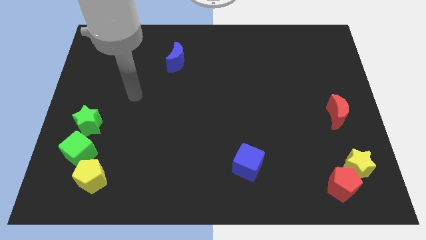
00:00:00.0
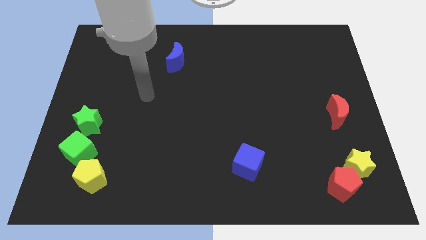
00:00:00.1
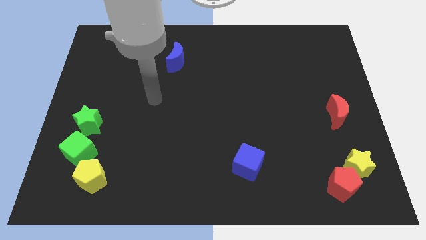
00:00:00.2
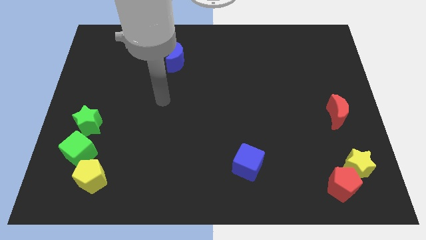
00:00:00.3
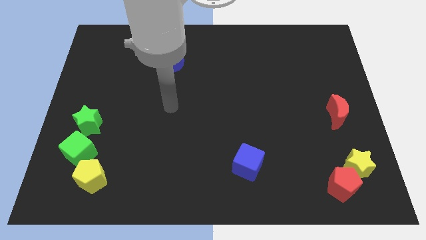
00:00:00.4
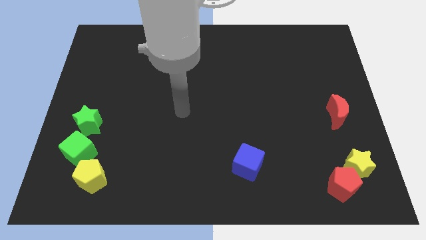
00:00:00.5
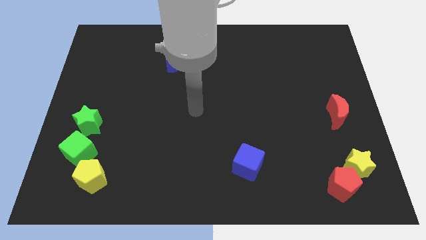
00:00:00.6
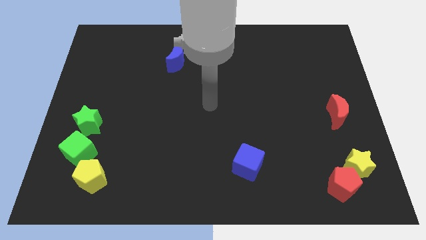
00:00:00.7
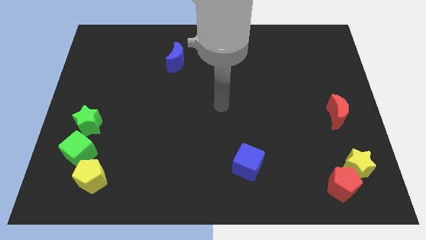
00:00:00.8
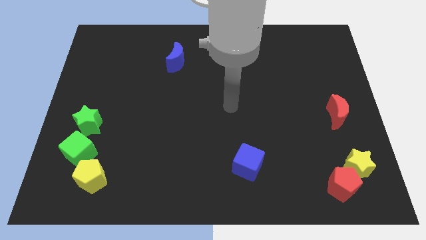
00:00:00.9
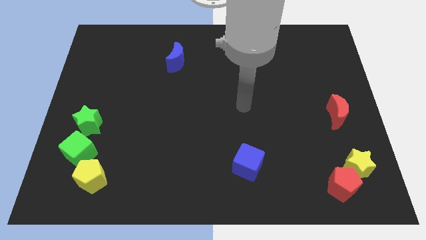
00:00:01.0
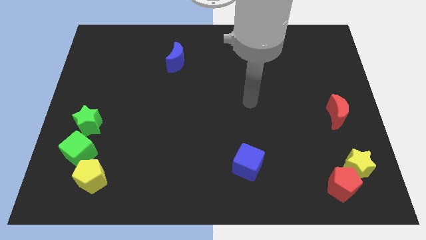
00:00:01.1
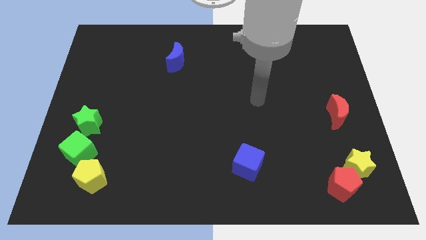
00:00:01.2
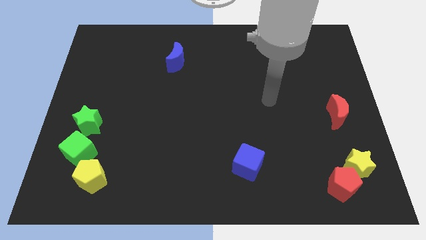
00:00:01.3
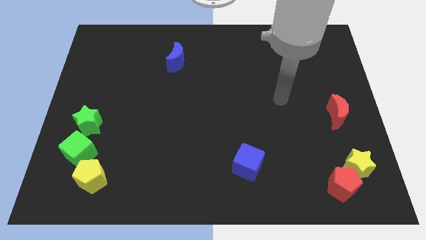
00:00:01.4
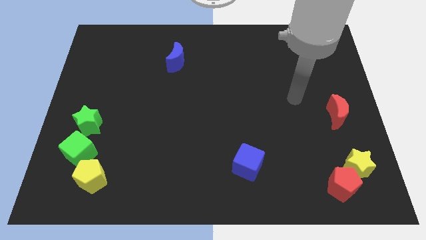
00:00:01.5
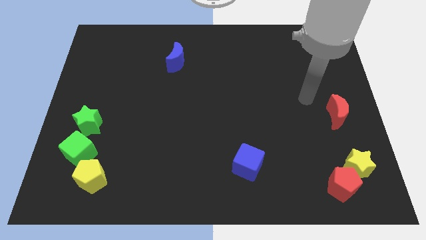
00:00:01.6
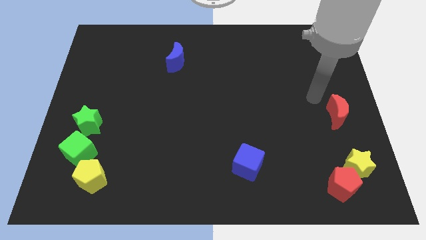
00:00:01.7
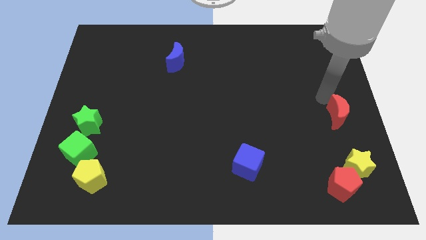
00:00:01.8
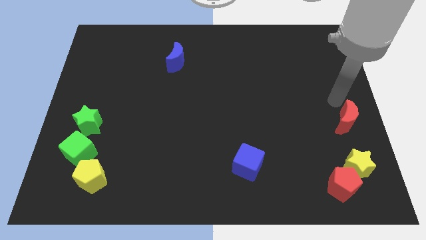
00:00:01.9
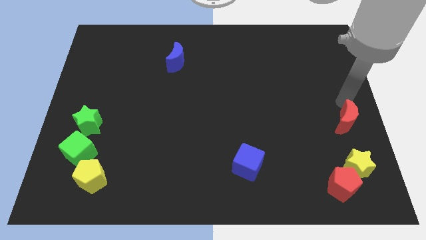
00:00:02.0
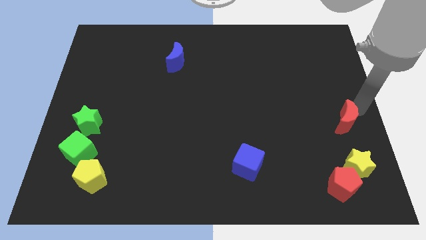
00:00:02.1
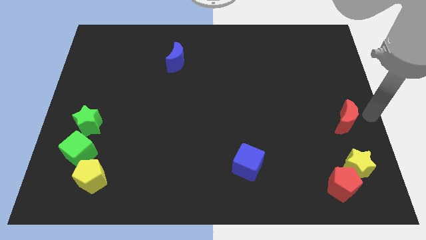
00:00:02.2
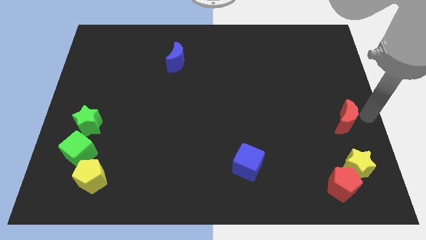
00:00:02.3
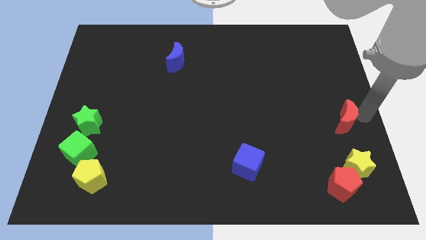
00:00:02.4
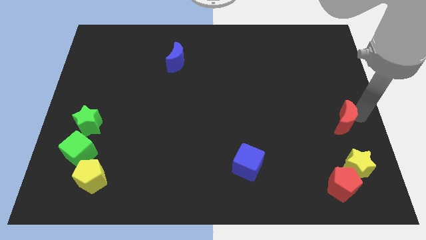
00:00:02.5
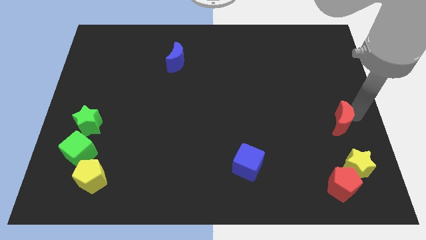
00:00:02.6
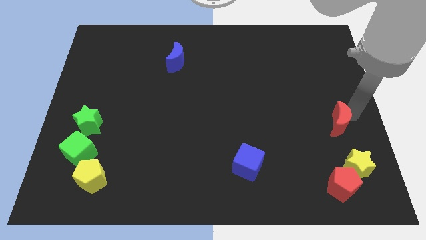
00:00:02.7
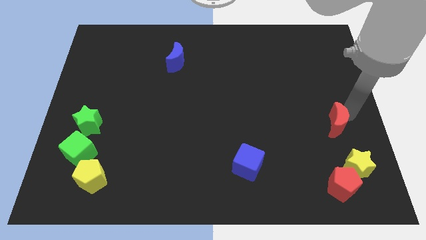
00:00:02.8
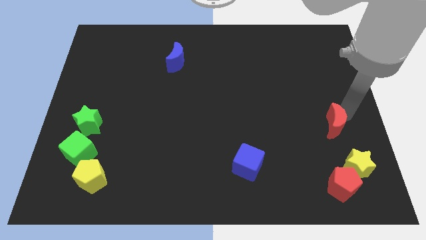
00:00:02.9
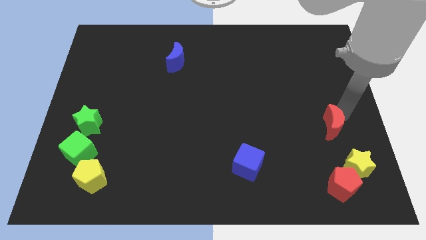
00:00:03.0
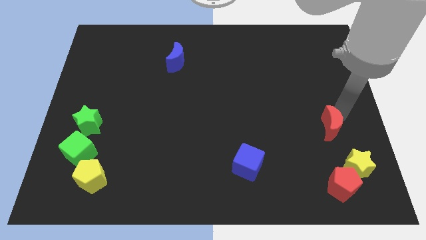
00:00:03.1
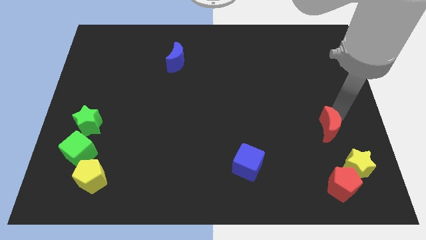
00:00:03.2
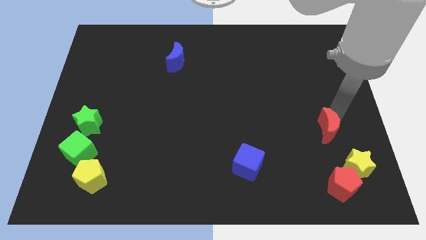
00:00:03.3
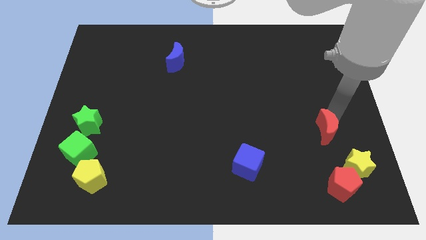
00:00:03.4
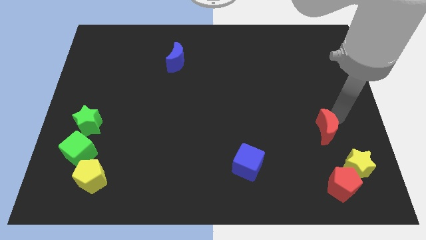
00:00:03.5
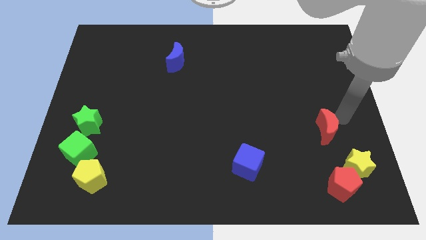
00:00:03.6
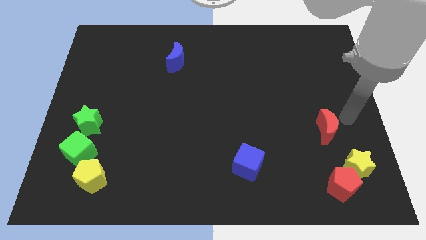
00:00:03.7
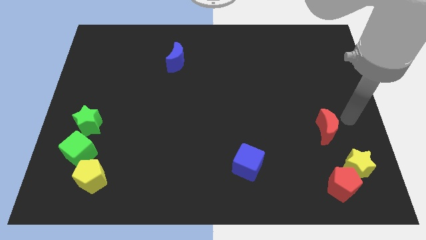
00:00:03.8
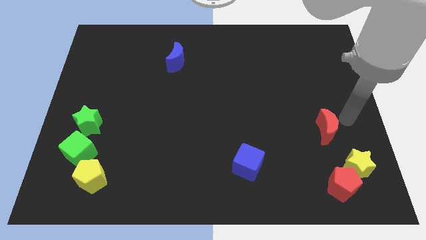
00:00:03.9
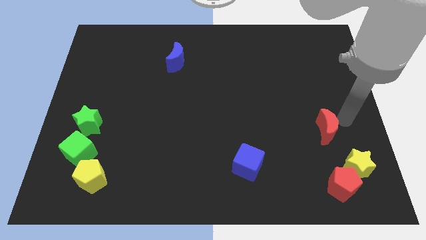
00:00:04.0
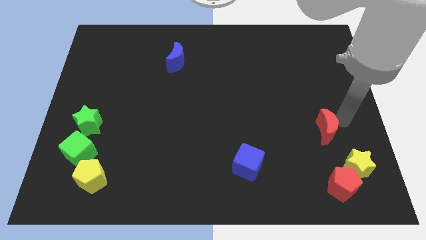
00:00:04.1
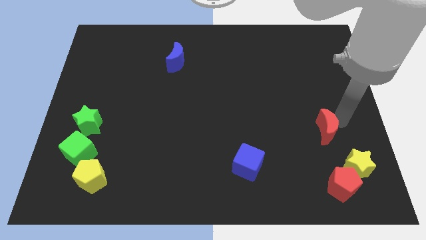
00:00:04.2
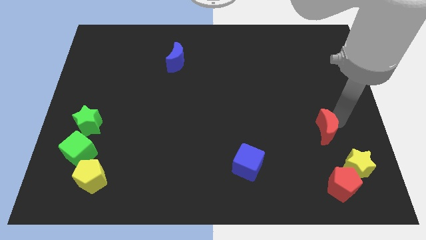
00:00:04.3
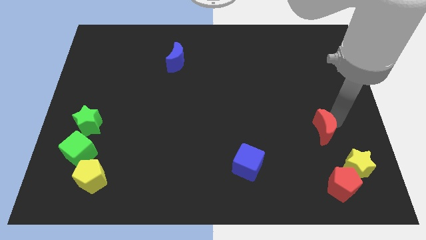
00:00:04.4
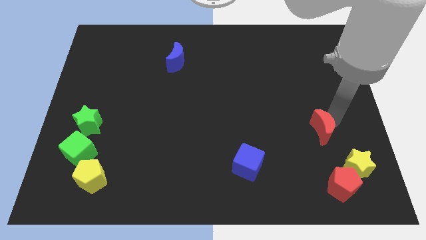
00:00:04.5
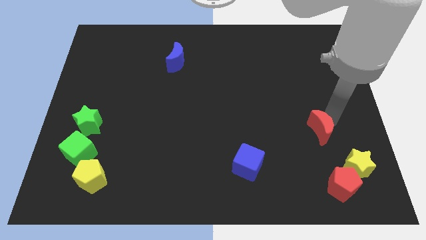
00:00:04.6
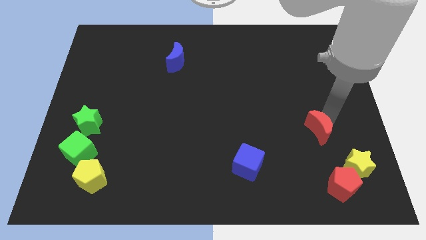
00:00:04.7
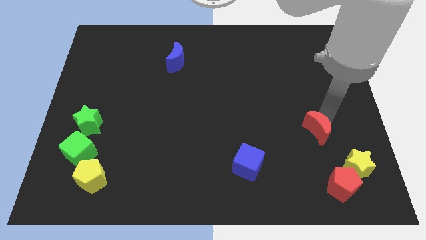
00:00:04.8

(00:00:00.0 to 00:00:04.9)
slide the red moon down and then to the left slightly

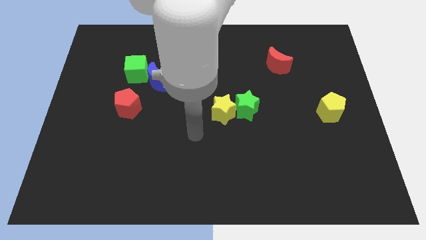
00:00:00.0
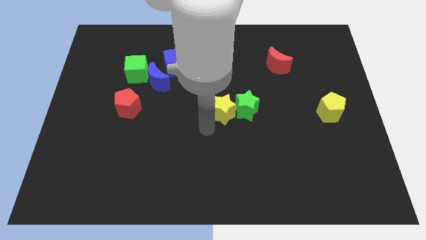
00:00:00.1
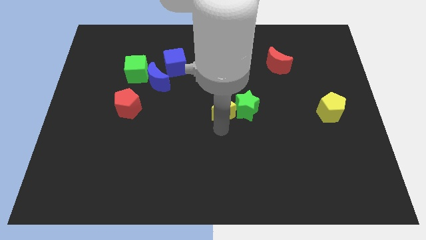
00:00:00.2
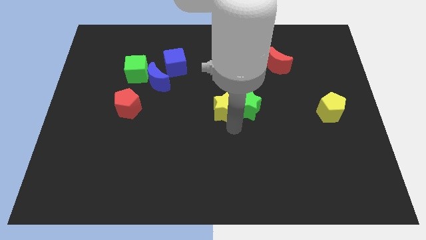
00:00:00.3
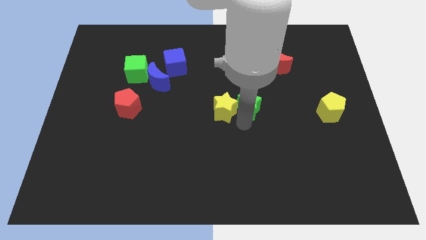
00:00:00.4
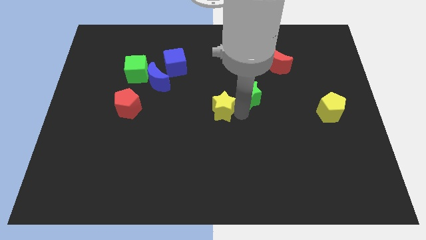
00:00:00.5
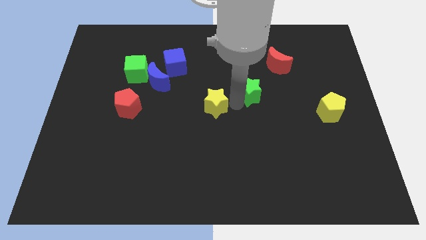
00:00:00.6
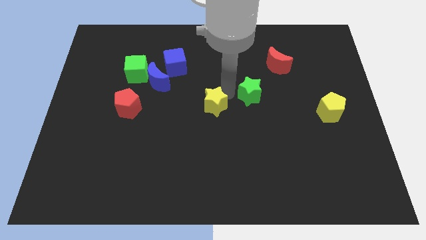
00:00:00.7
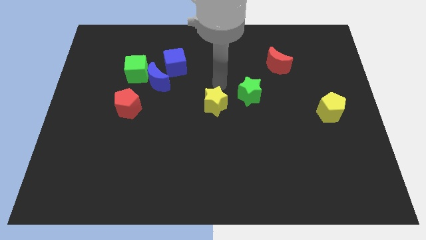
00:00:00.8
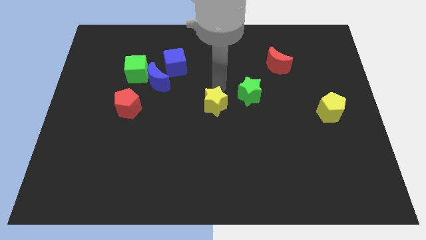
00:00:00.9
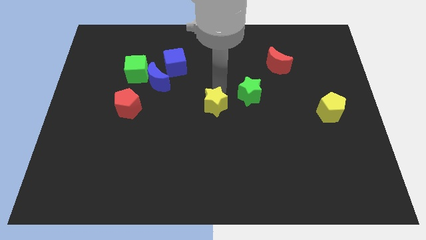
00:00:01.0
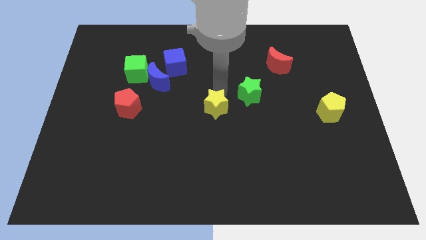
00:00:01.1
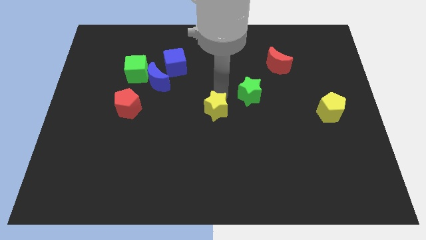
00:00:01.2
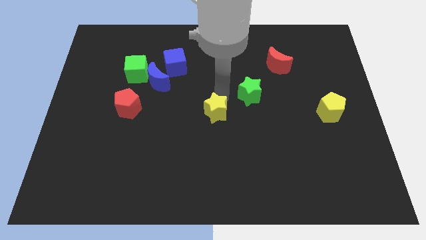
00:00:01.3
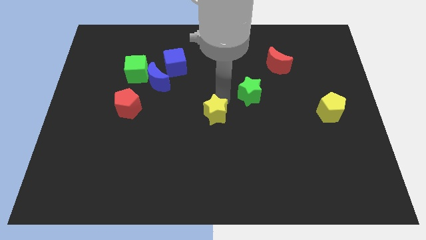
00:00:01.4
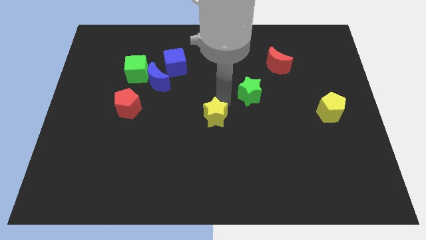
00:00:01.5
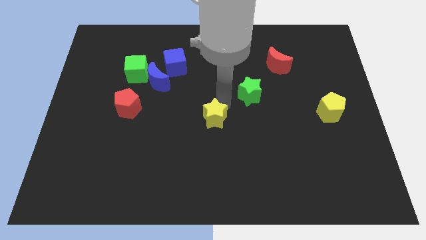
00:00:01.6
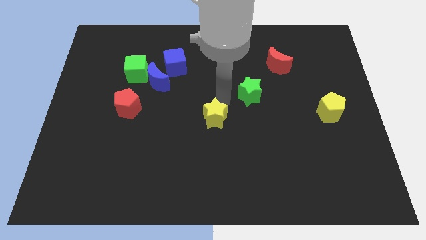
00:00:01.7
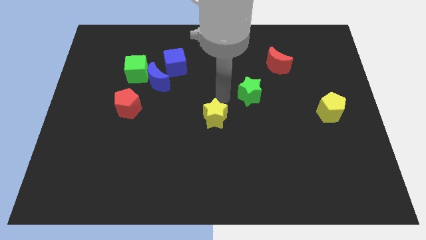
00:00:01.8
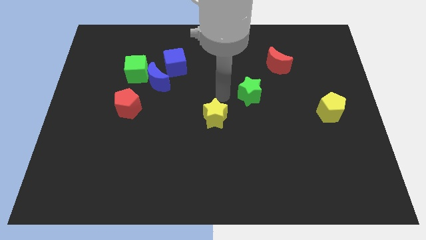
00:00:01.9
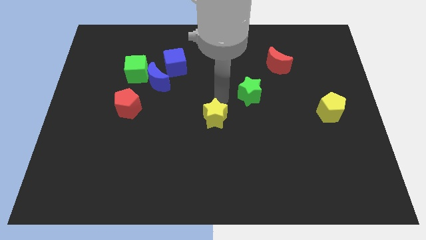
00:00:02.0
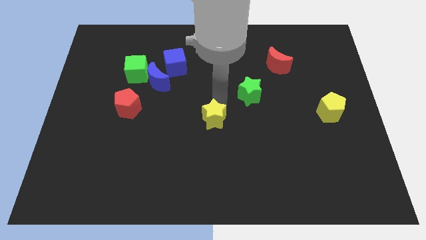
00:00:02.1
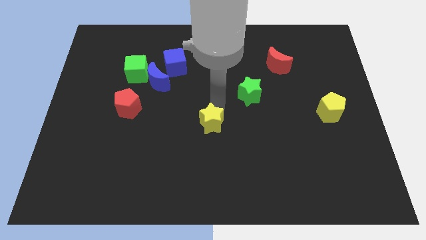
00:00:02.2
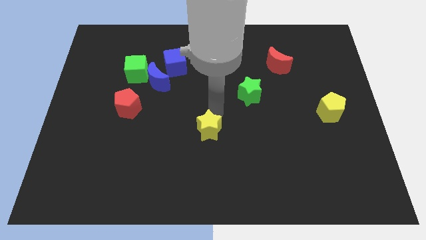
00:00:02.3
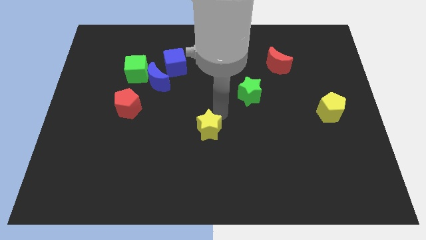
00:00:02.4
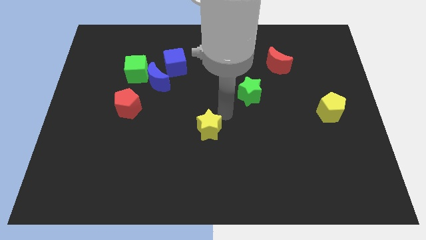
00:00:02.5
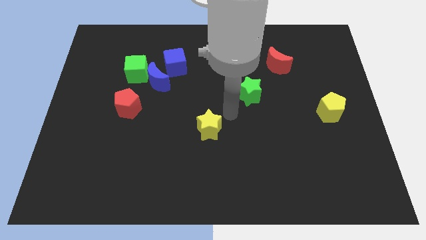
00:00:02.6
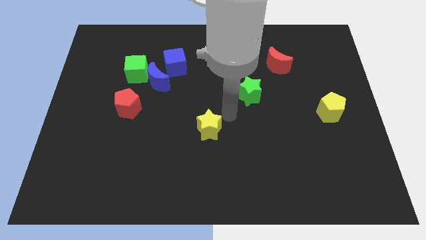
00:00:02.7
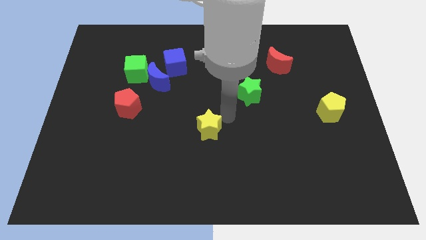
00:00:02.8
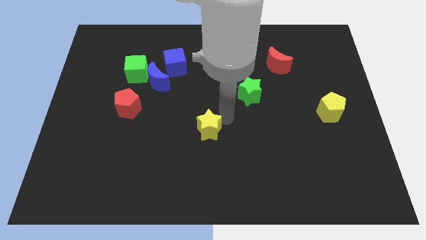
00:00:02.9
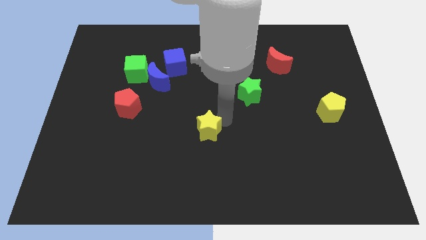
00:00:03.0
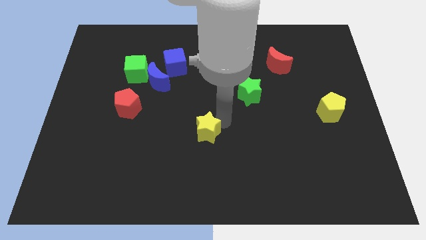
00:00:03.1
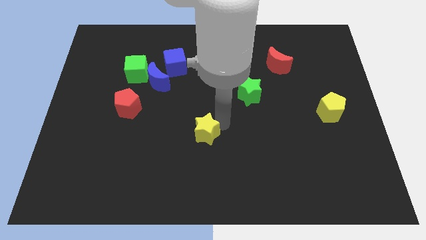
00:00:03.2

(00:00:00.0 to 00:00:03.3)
move the yellow star somewhat diagonally down and left
